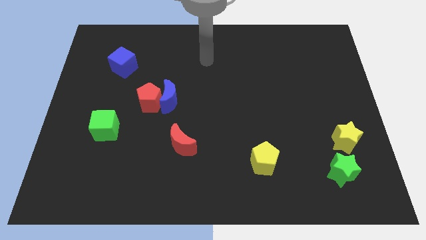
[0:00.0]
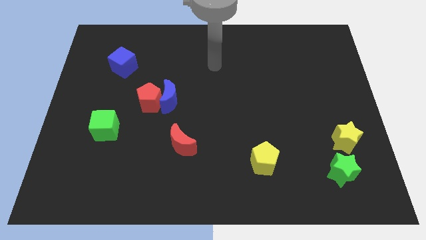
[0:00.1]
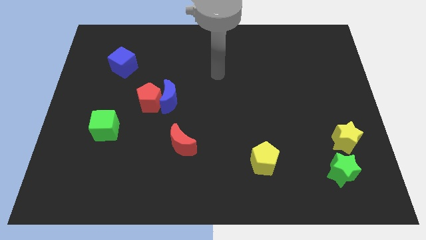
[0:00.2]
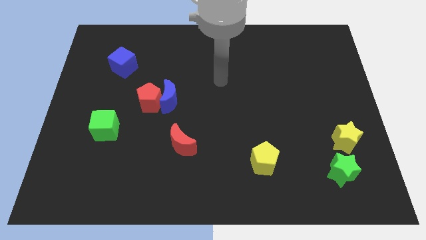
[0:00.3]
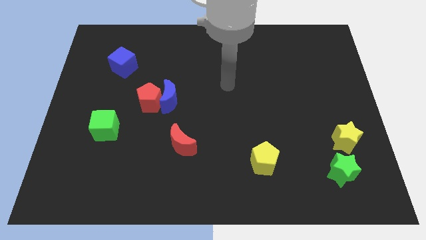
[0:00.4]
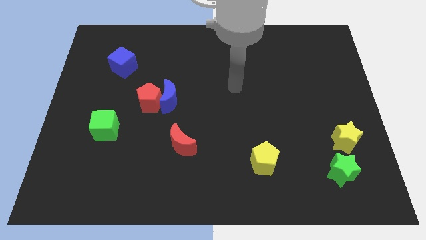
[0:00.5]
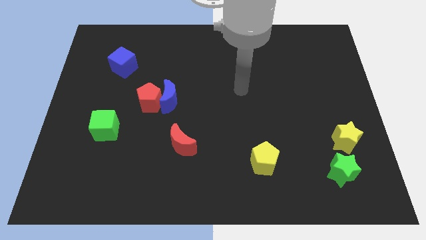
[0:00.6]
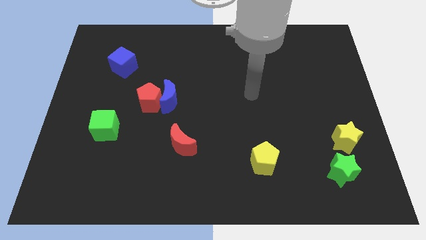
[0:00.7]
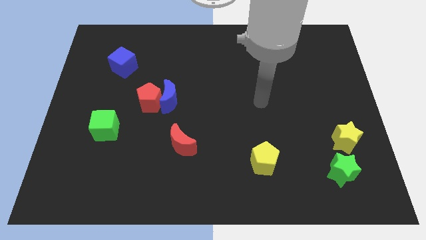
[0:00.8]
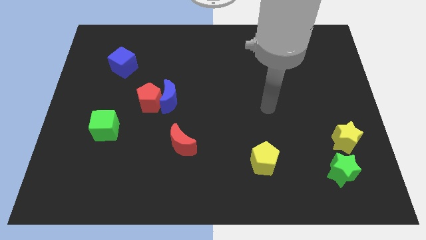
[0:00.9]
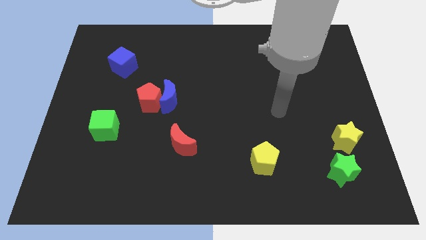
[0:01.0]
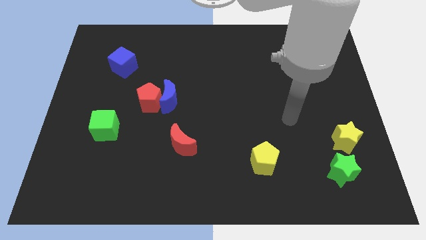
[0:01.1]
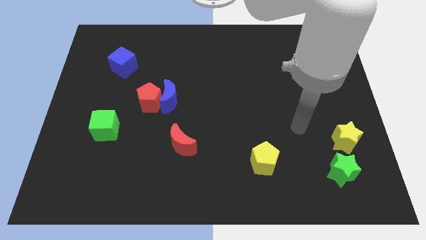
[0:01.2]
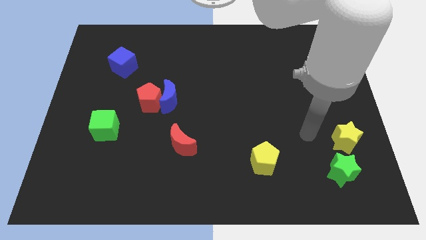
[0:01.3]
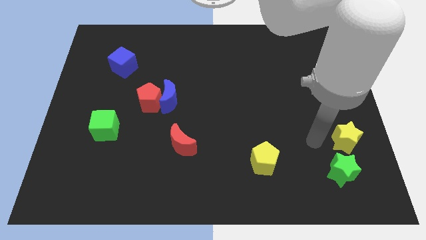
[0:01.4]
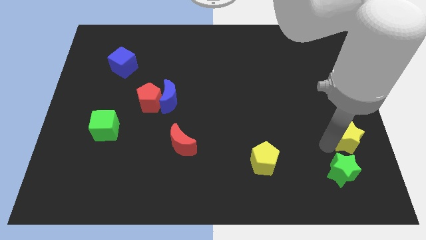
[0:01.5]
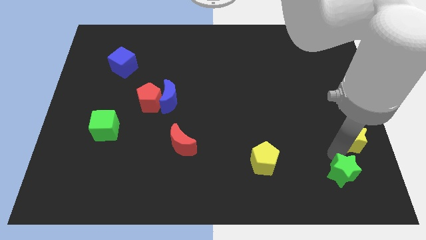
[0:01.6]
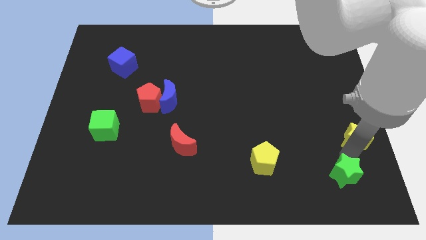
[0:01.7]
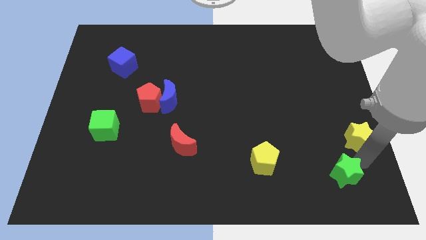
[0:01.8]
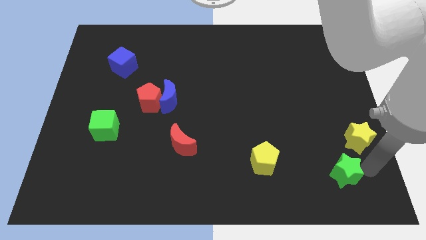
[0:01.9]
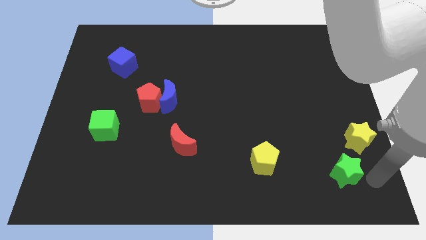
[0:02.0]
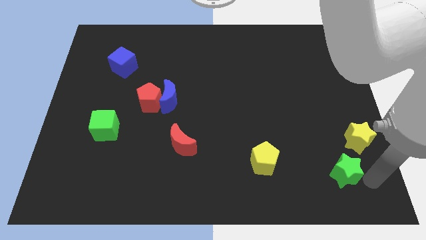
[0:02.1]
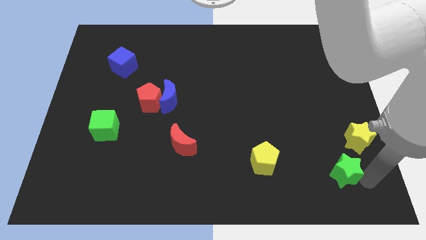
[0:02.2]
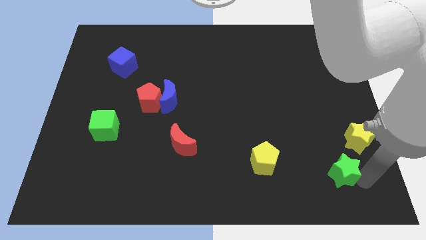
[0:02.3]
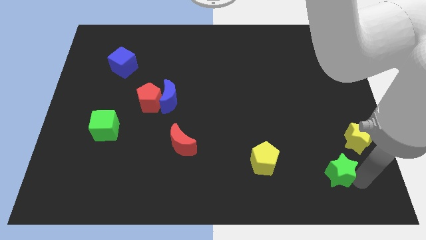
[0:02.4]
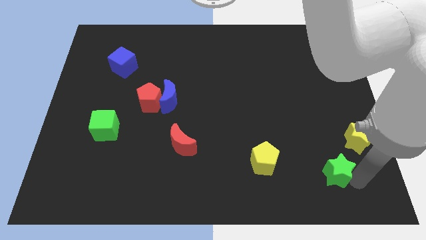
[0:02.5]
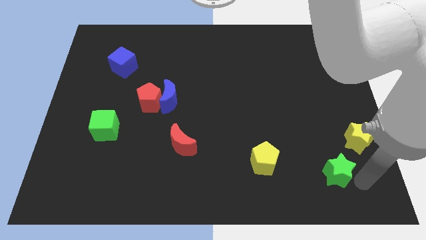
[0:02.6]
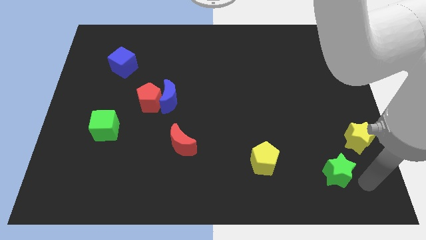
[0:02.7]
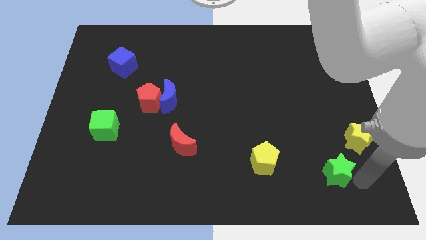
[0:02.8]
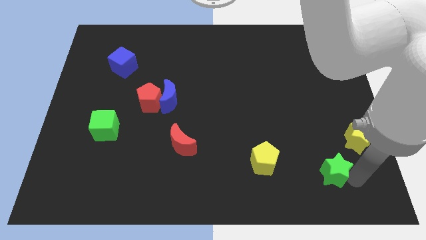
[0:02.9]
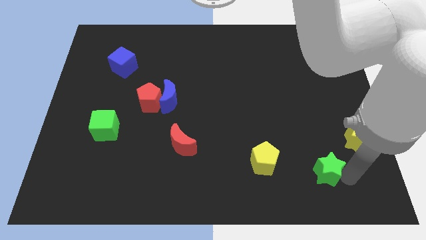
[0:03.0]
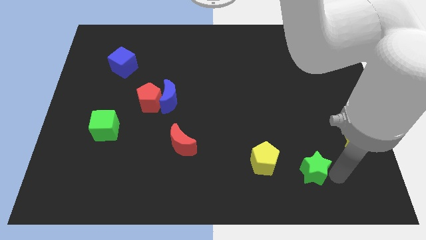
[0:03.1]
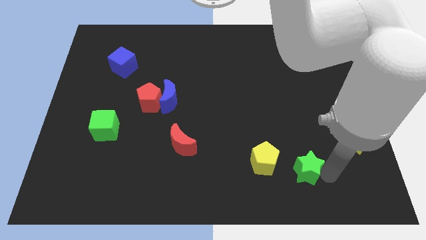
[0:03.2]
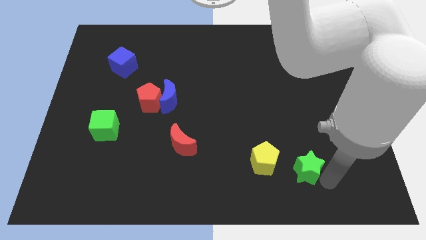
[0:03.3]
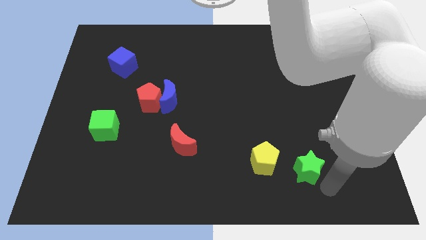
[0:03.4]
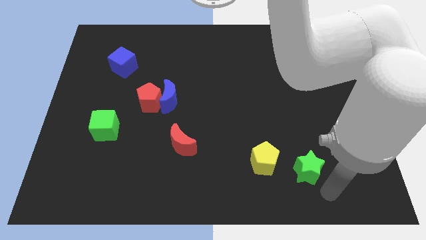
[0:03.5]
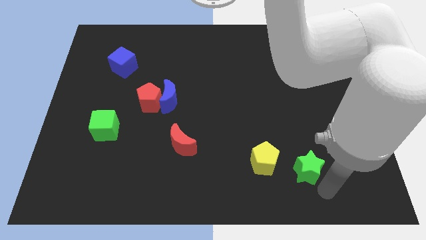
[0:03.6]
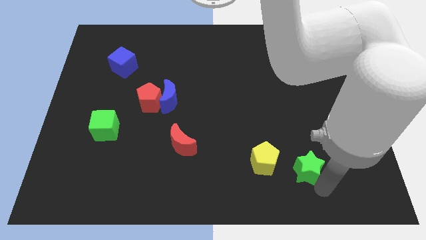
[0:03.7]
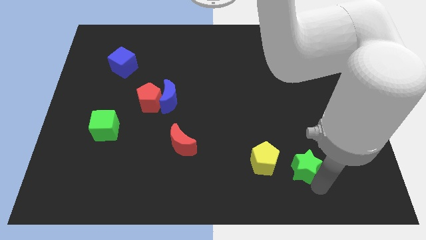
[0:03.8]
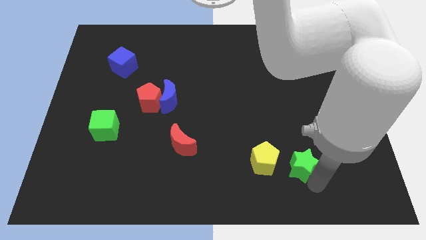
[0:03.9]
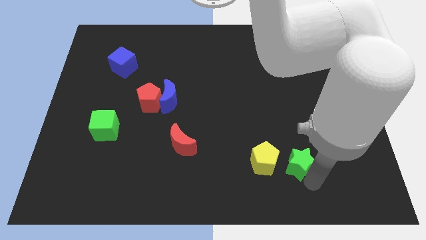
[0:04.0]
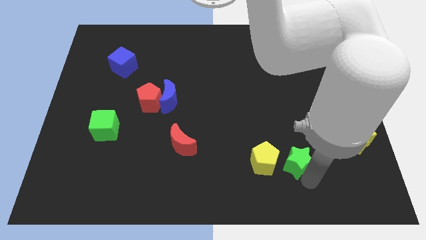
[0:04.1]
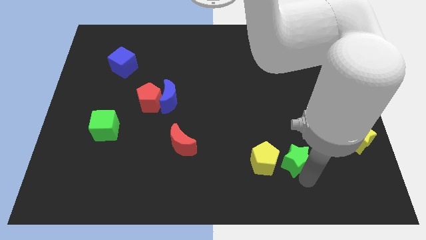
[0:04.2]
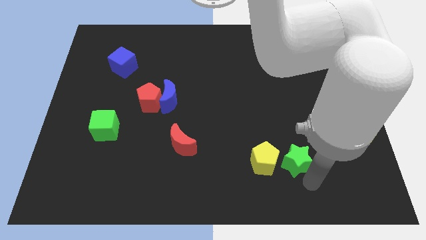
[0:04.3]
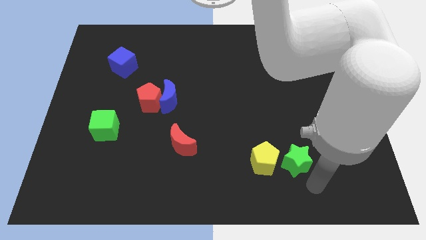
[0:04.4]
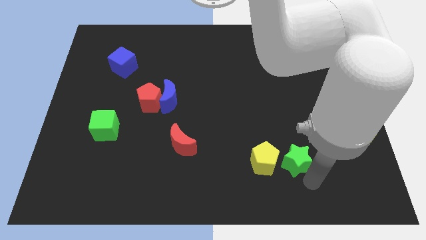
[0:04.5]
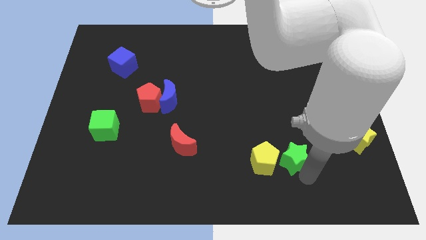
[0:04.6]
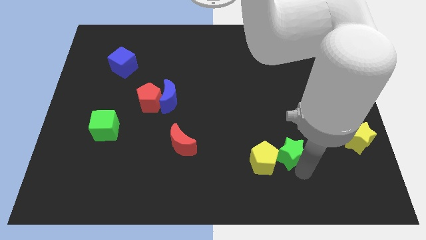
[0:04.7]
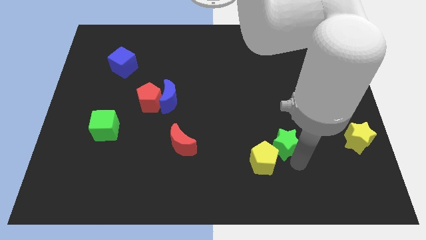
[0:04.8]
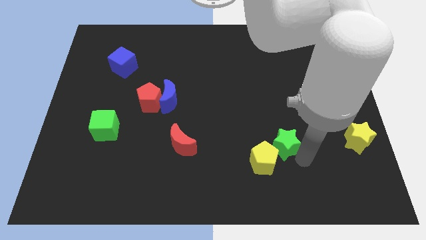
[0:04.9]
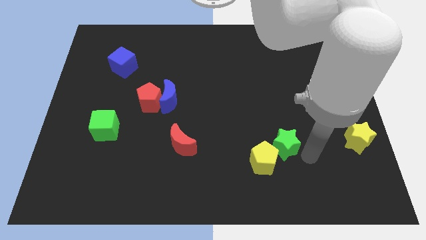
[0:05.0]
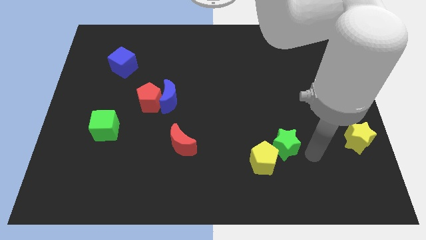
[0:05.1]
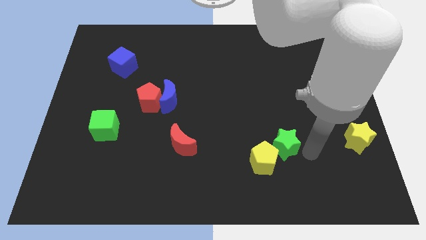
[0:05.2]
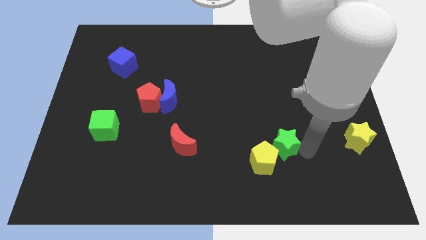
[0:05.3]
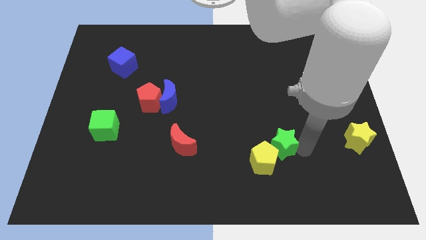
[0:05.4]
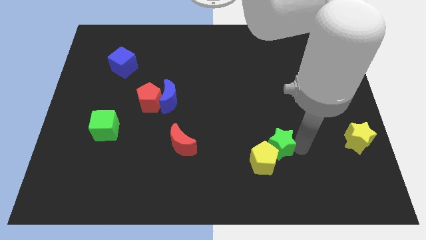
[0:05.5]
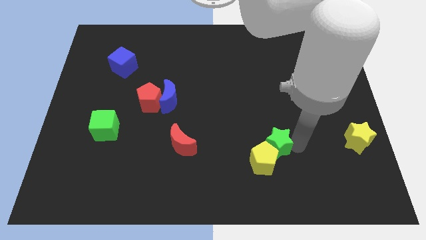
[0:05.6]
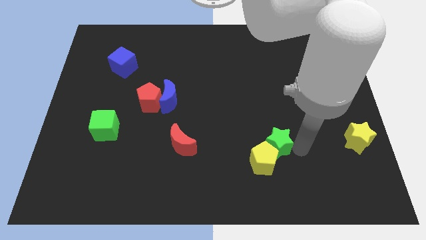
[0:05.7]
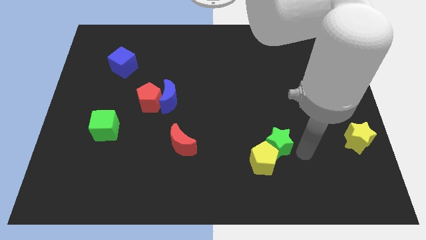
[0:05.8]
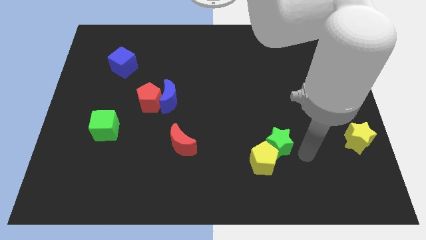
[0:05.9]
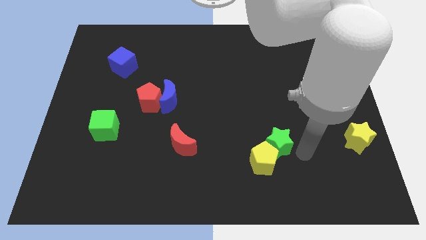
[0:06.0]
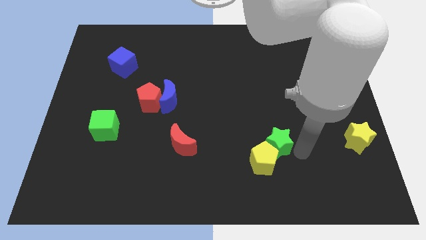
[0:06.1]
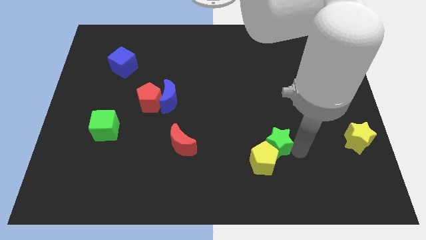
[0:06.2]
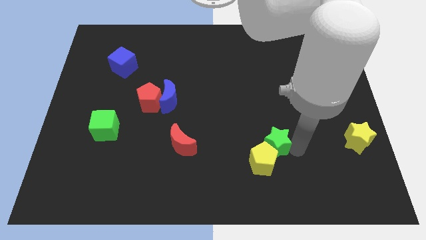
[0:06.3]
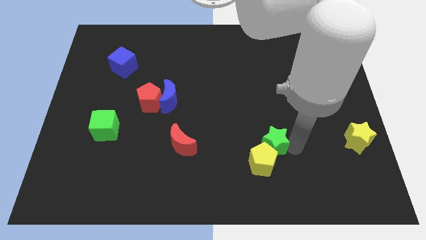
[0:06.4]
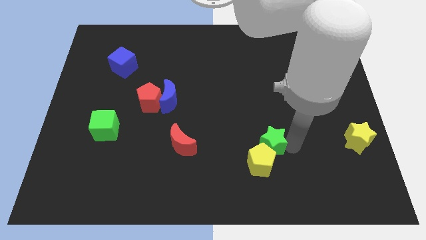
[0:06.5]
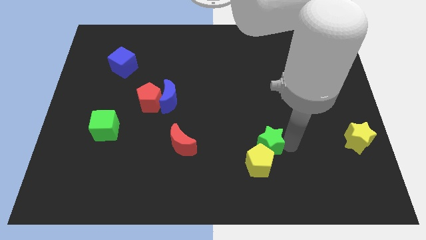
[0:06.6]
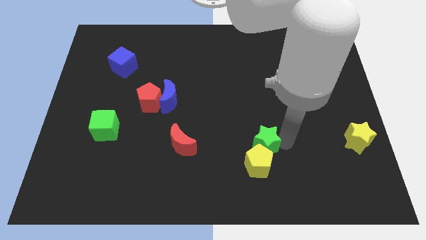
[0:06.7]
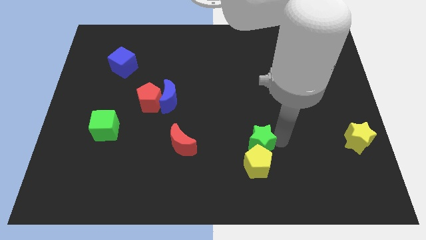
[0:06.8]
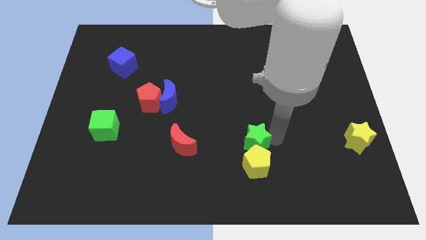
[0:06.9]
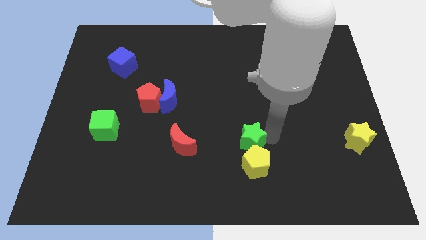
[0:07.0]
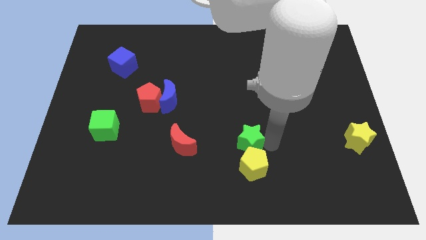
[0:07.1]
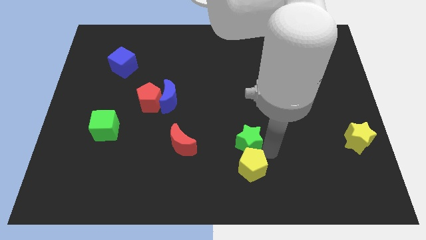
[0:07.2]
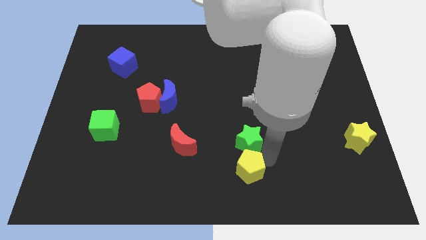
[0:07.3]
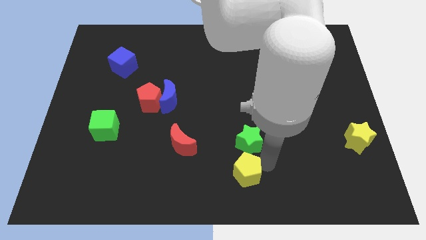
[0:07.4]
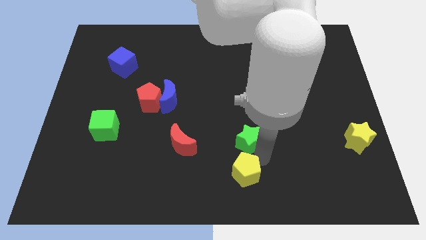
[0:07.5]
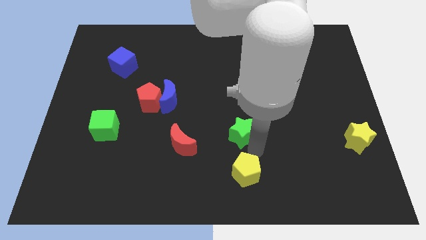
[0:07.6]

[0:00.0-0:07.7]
slide the green star to the middle
